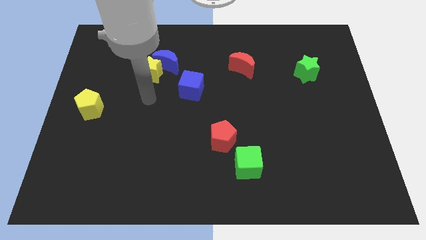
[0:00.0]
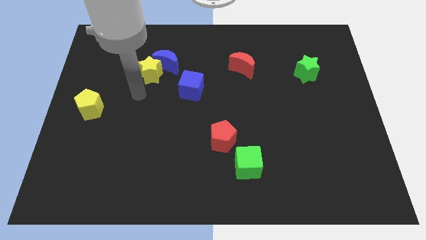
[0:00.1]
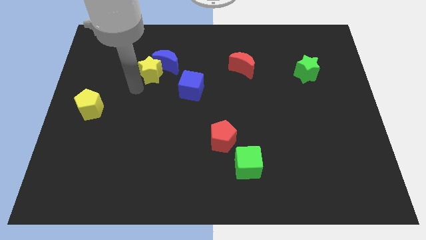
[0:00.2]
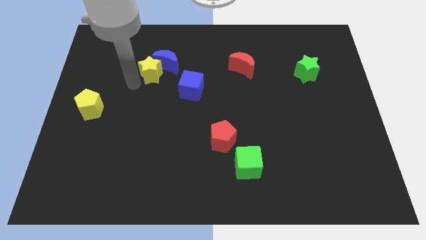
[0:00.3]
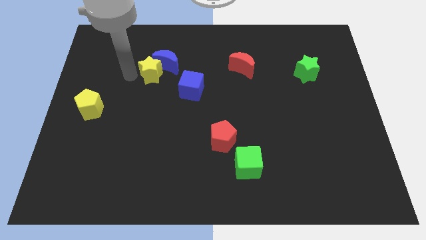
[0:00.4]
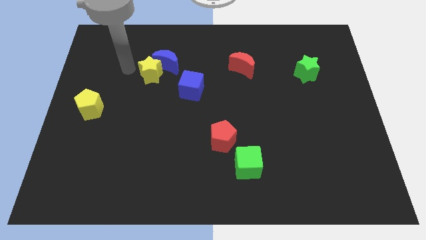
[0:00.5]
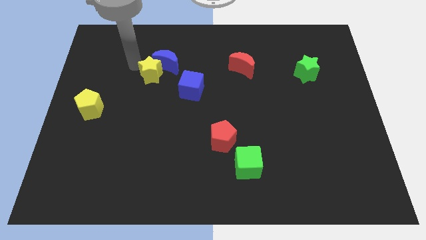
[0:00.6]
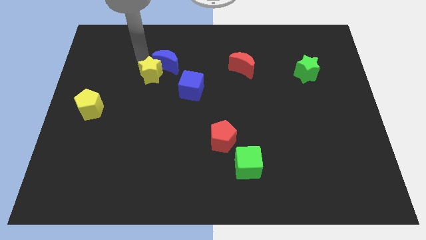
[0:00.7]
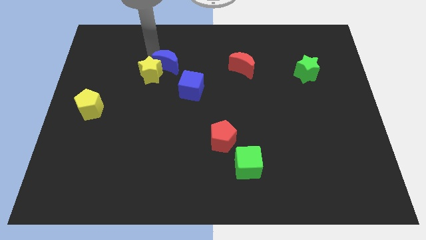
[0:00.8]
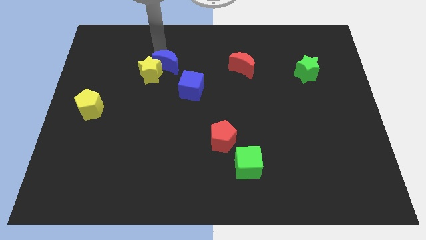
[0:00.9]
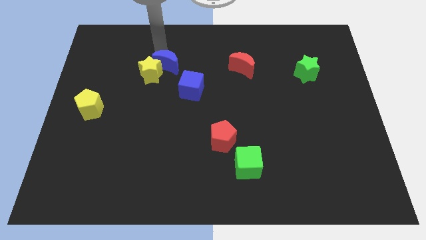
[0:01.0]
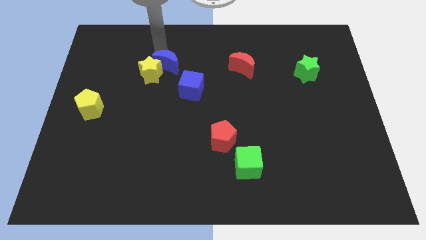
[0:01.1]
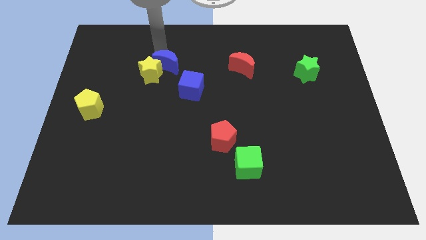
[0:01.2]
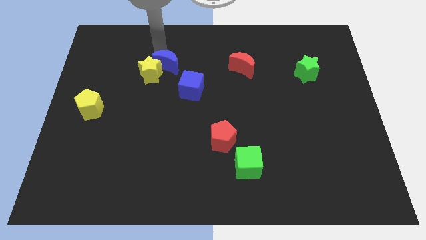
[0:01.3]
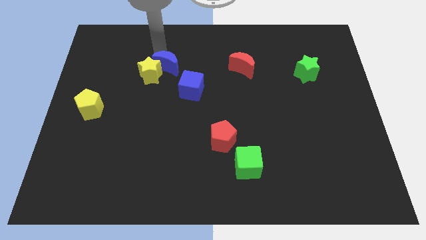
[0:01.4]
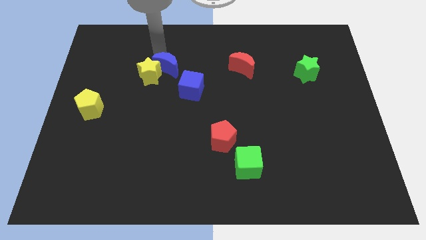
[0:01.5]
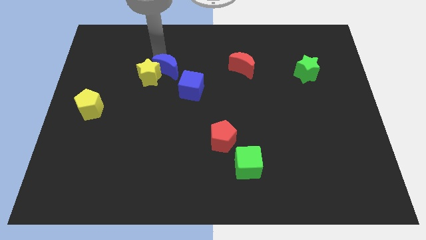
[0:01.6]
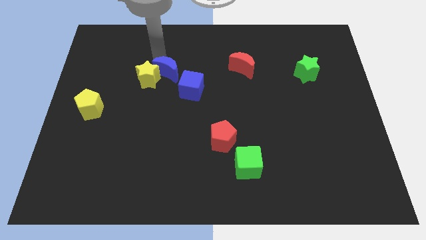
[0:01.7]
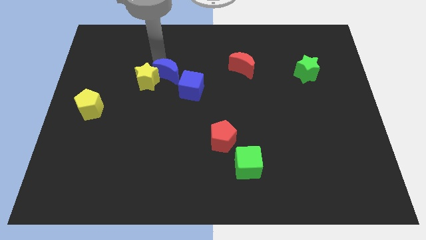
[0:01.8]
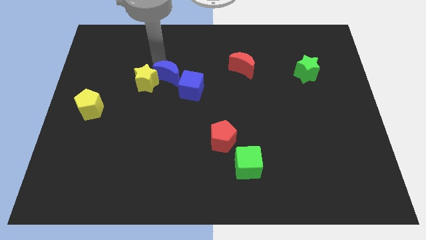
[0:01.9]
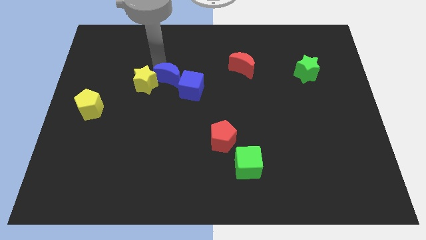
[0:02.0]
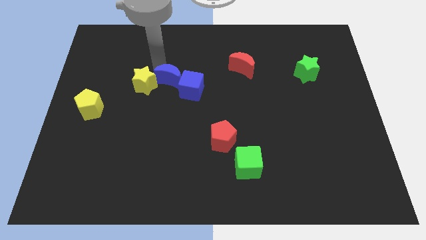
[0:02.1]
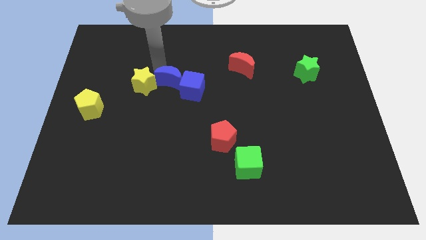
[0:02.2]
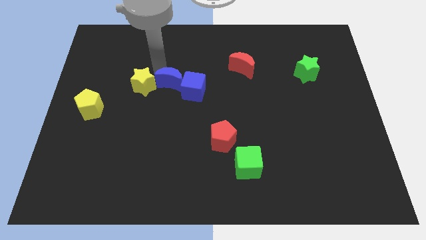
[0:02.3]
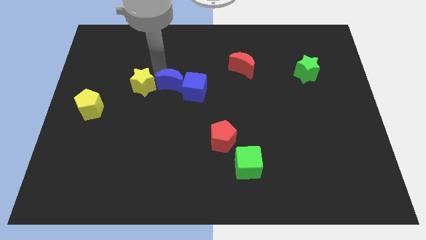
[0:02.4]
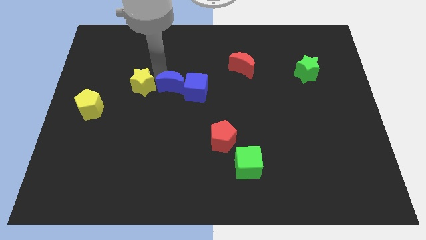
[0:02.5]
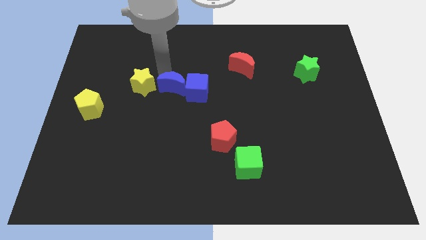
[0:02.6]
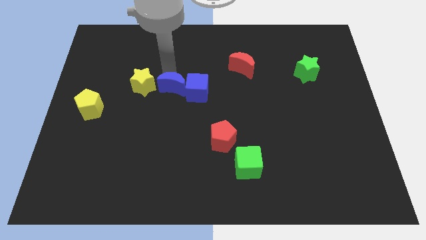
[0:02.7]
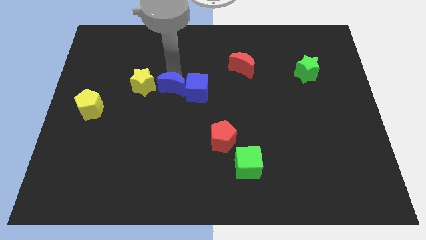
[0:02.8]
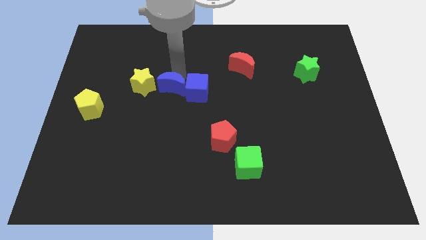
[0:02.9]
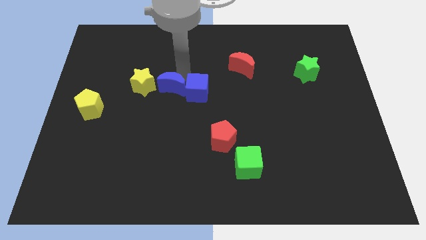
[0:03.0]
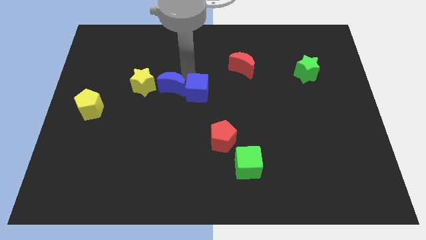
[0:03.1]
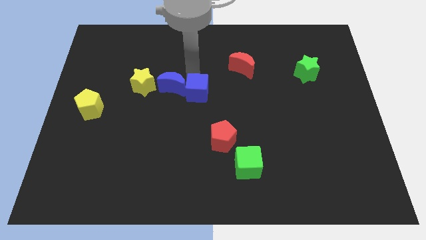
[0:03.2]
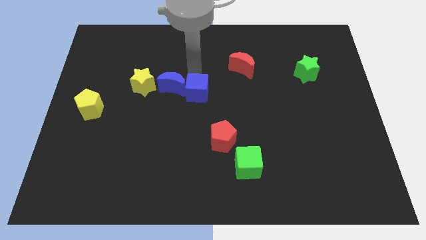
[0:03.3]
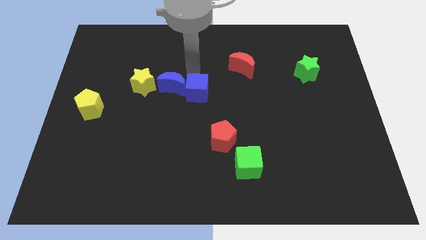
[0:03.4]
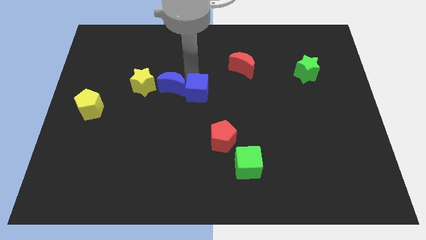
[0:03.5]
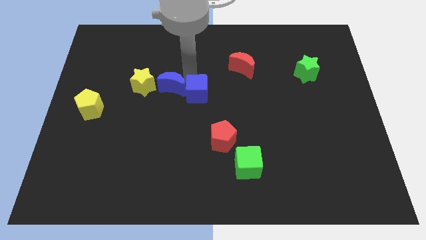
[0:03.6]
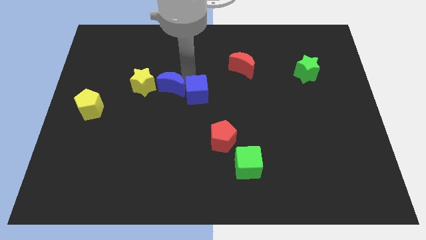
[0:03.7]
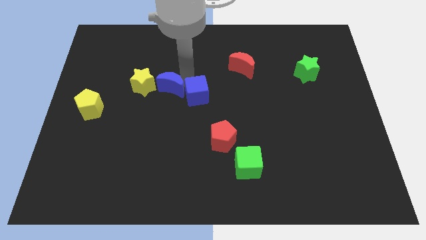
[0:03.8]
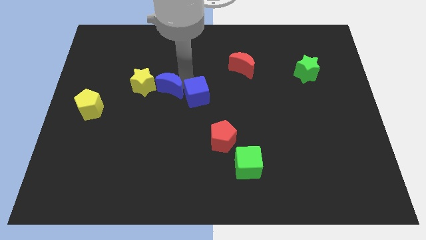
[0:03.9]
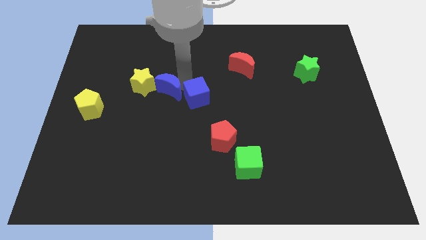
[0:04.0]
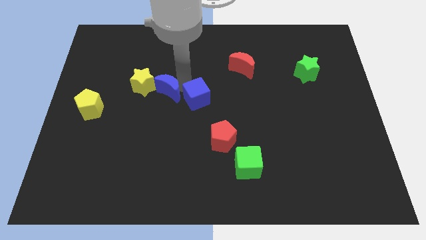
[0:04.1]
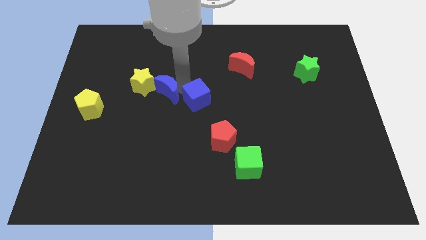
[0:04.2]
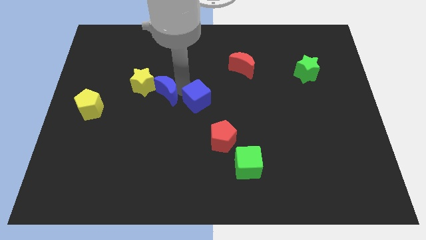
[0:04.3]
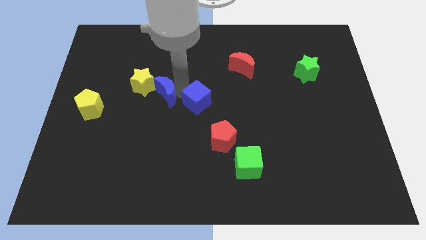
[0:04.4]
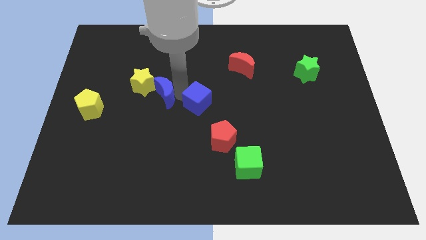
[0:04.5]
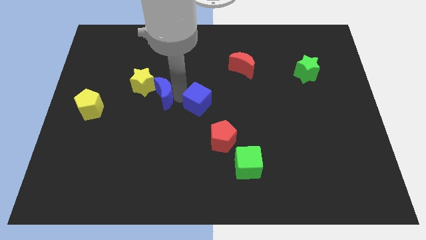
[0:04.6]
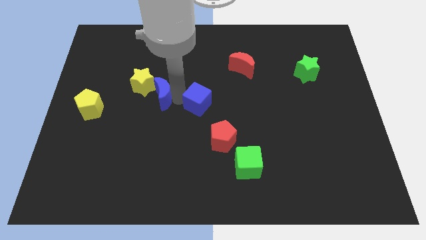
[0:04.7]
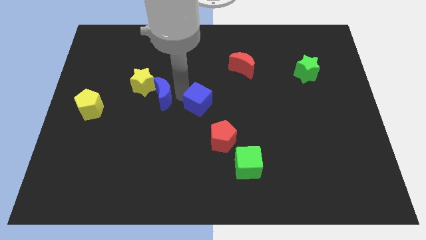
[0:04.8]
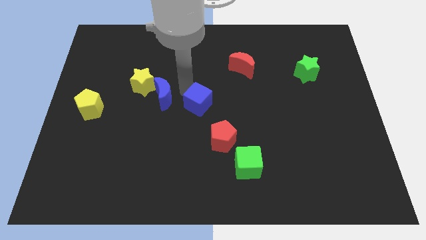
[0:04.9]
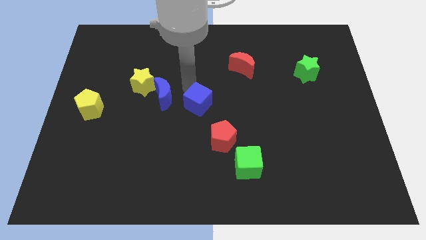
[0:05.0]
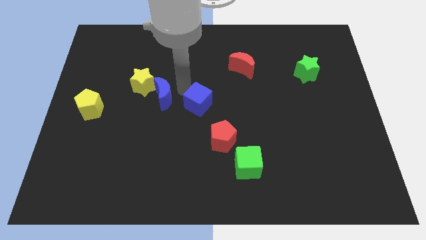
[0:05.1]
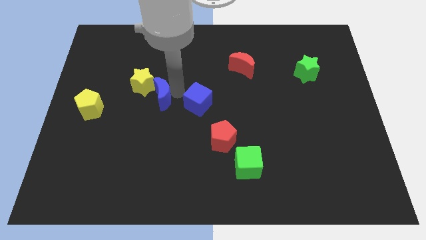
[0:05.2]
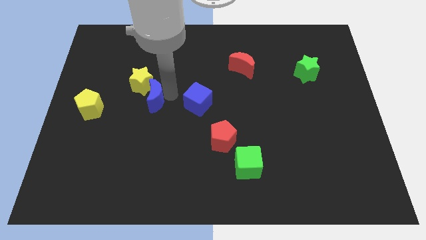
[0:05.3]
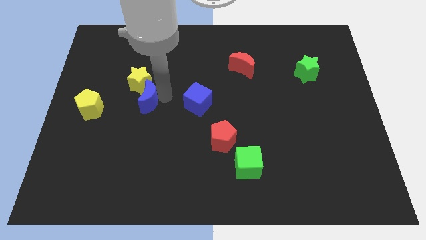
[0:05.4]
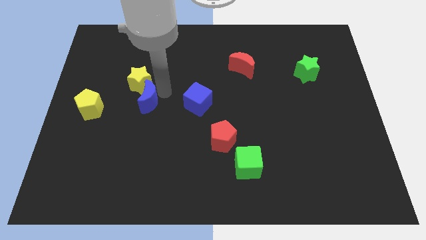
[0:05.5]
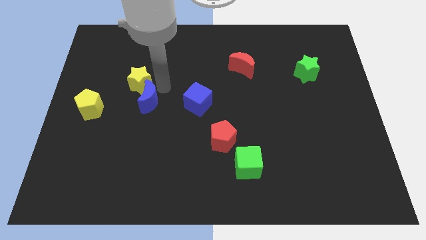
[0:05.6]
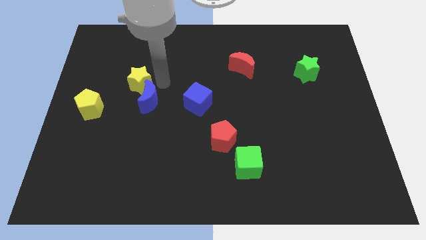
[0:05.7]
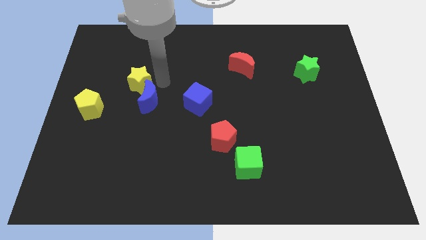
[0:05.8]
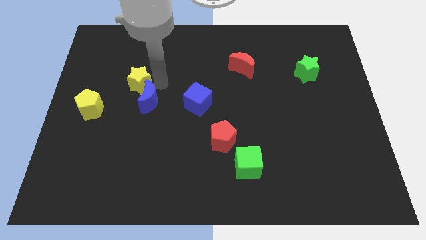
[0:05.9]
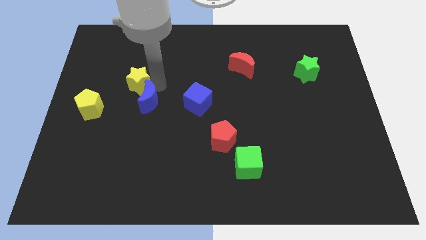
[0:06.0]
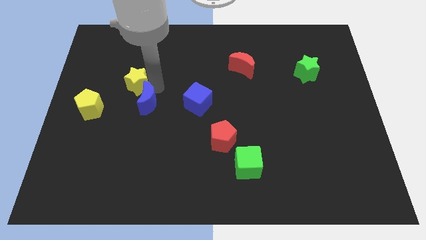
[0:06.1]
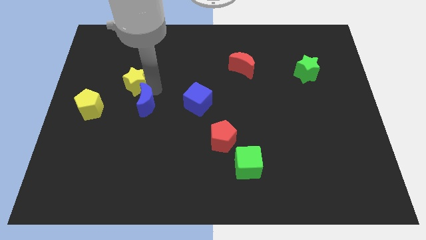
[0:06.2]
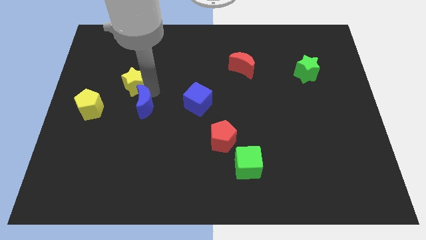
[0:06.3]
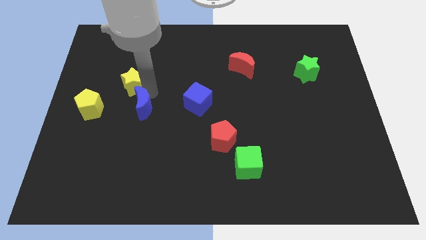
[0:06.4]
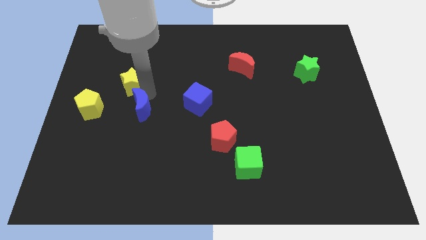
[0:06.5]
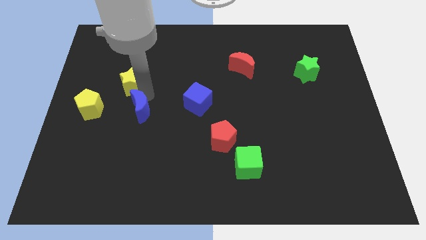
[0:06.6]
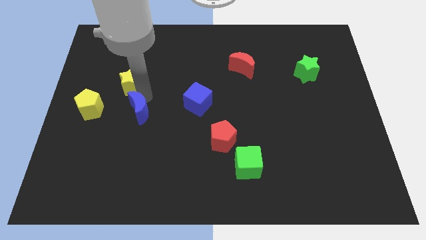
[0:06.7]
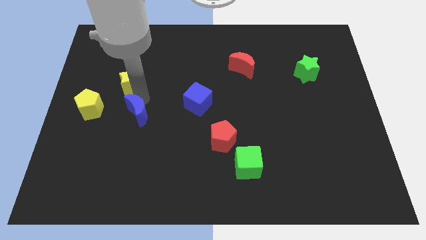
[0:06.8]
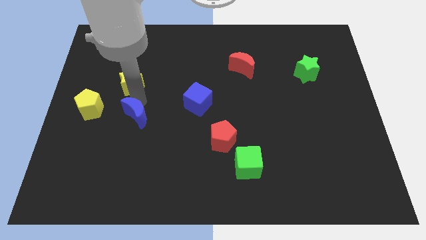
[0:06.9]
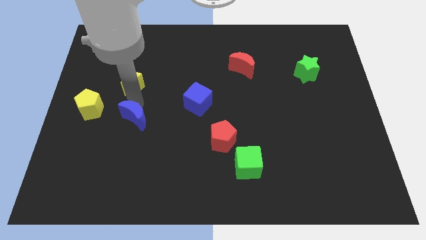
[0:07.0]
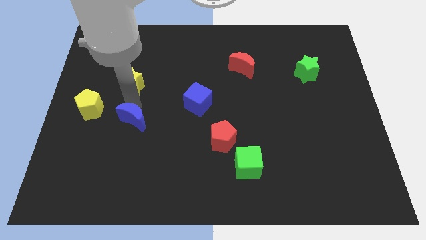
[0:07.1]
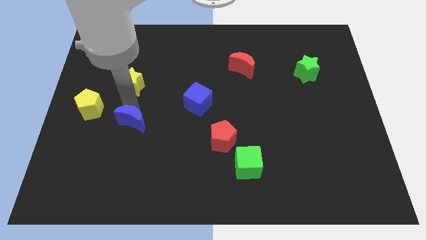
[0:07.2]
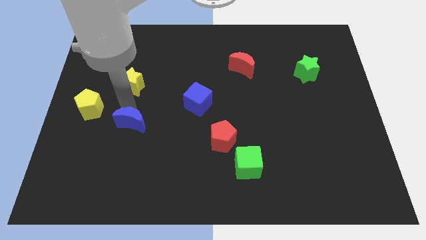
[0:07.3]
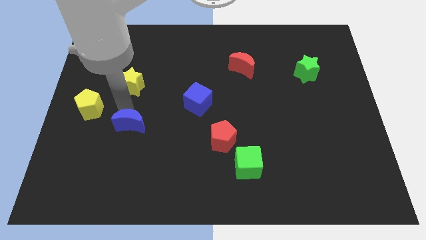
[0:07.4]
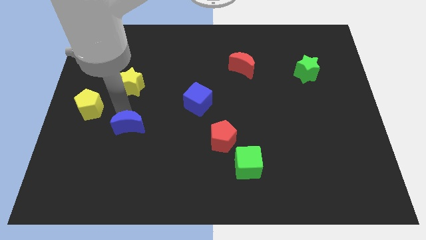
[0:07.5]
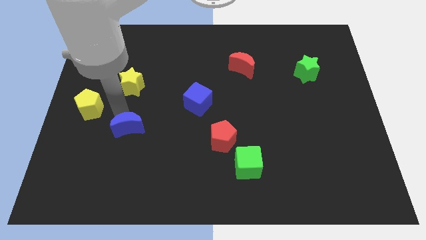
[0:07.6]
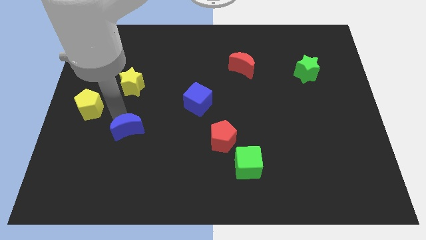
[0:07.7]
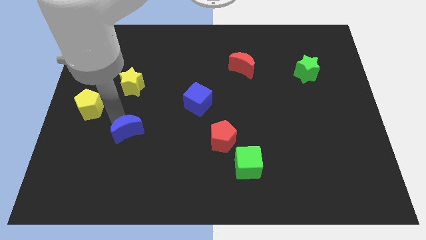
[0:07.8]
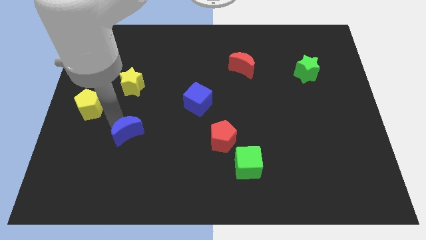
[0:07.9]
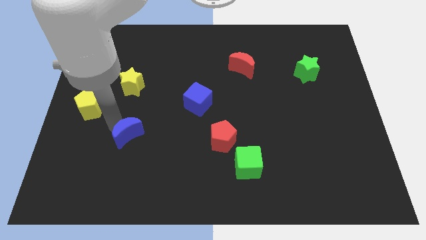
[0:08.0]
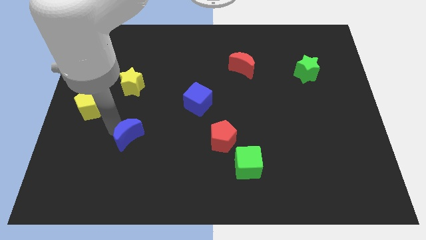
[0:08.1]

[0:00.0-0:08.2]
move the blue moon down
